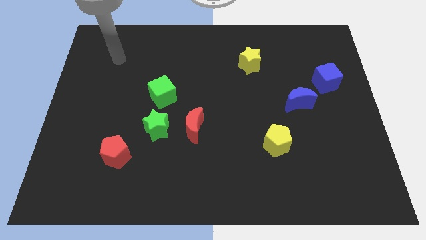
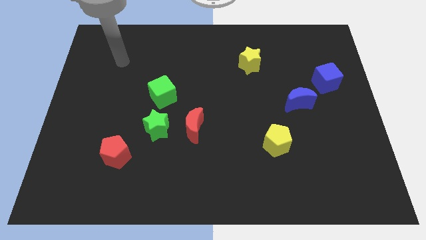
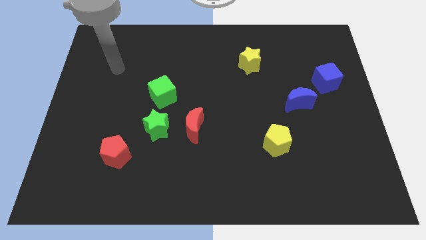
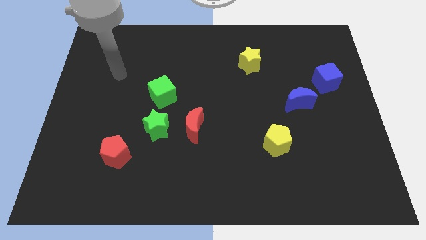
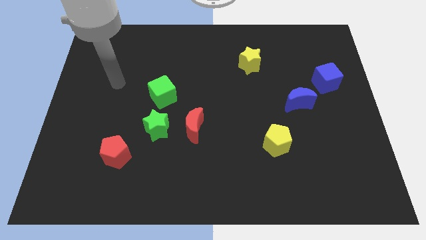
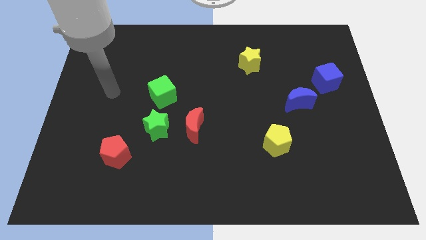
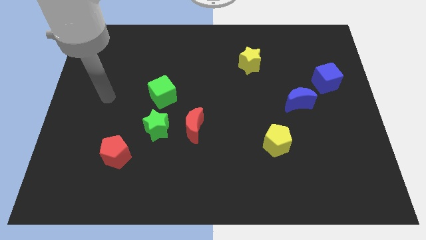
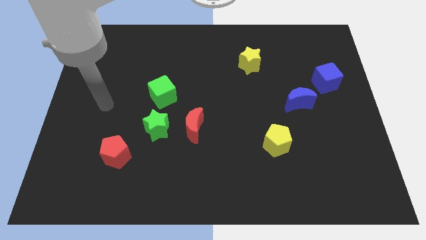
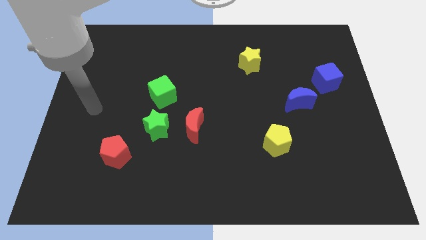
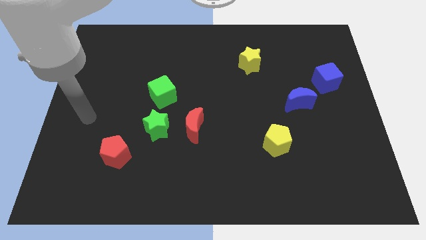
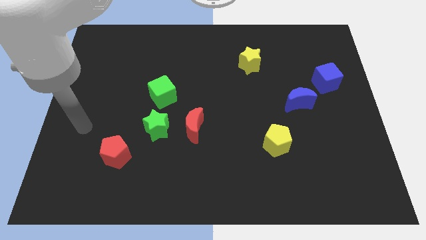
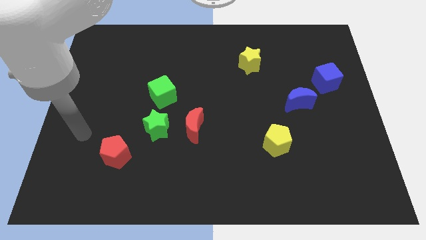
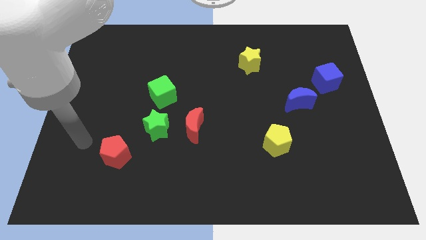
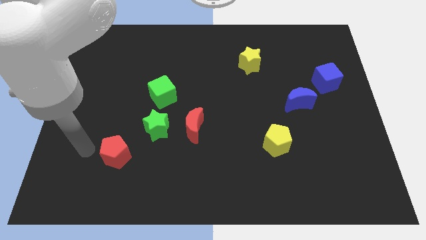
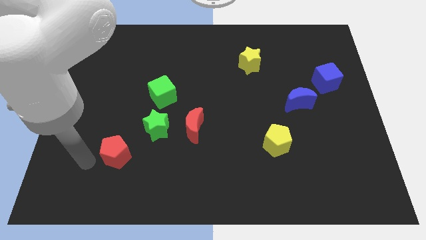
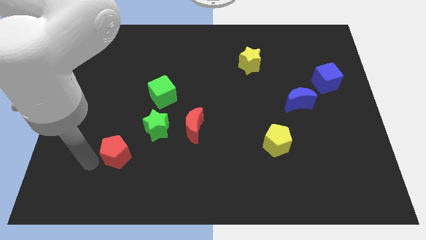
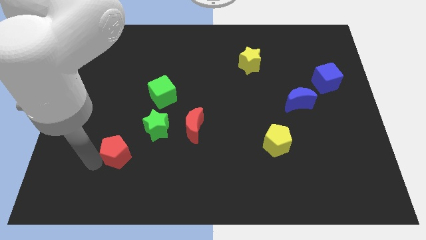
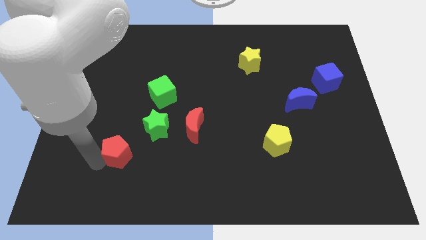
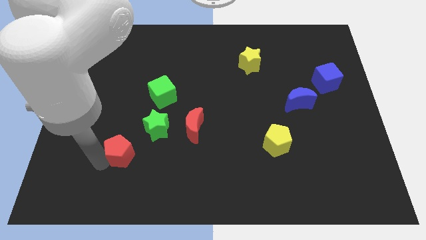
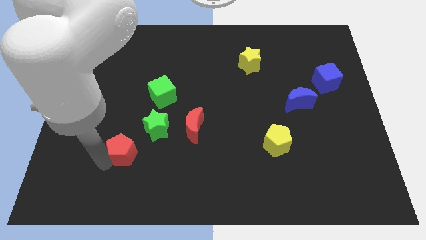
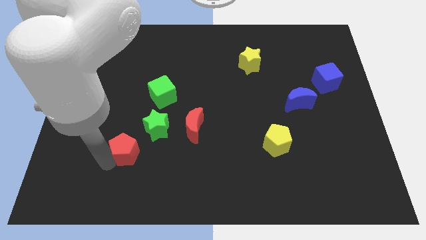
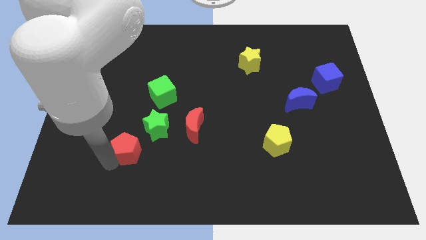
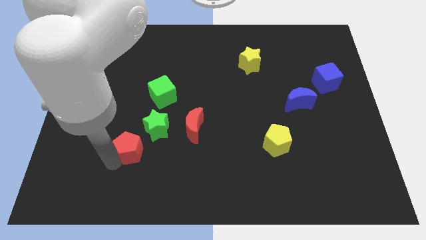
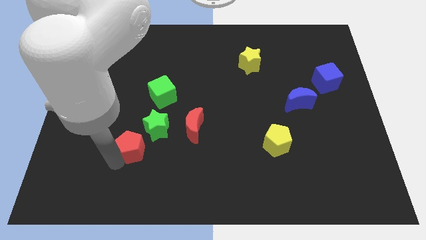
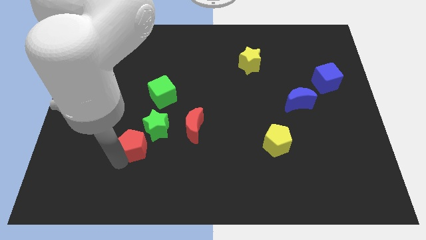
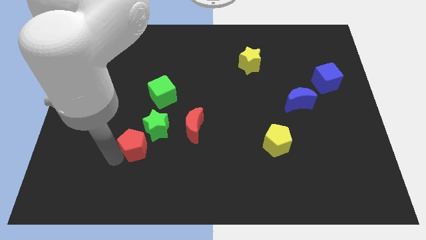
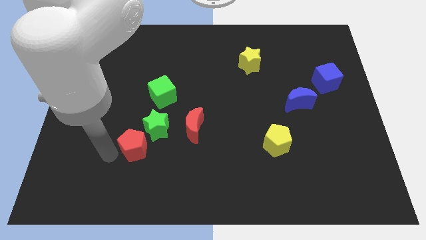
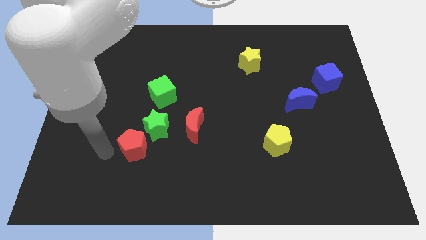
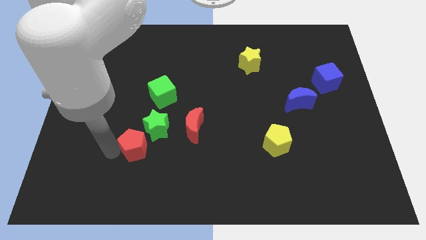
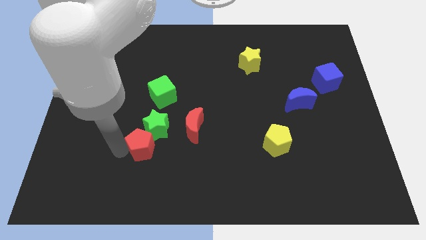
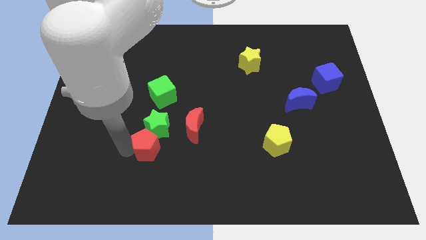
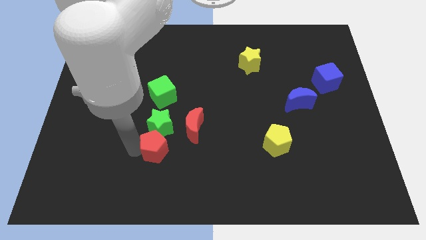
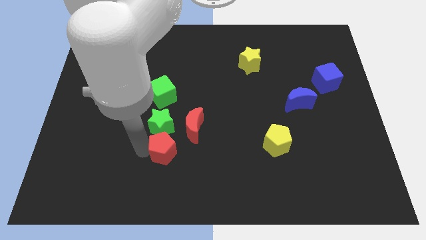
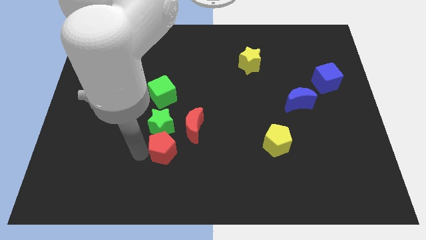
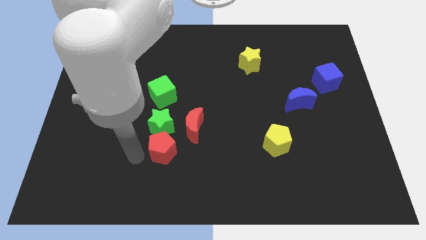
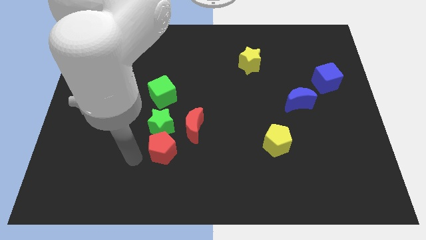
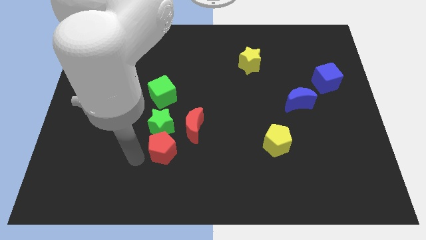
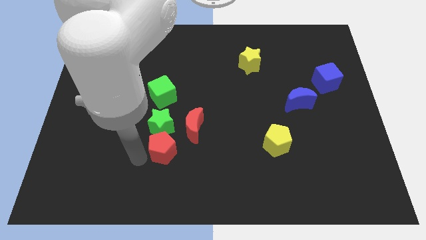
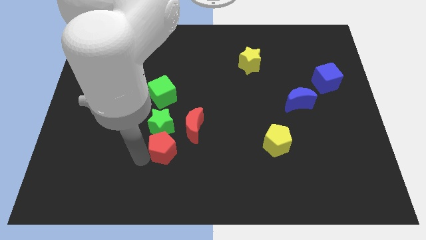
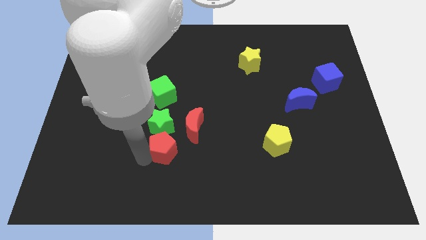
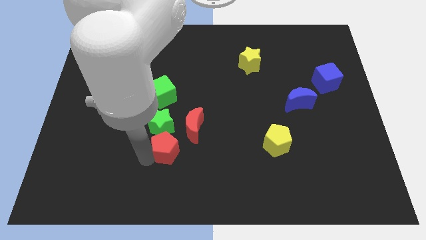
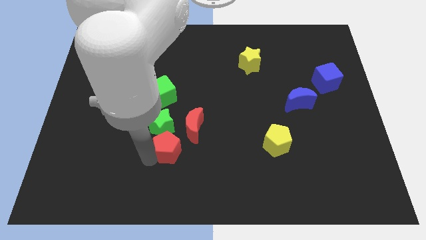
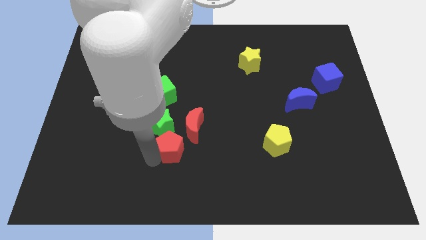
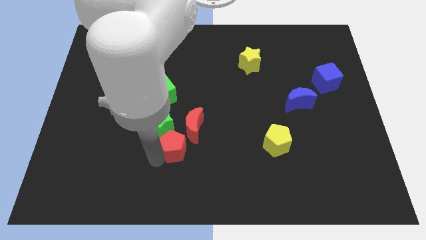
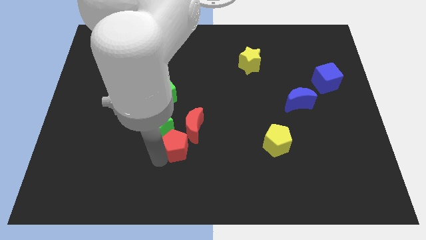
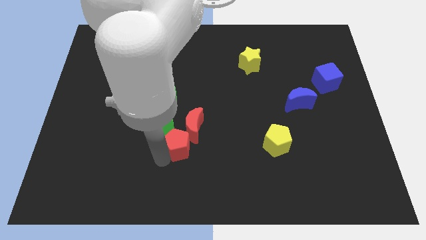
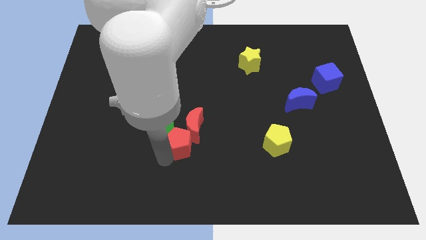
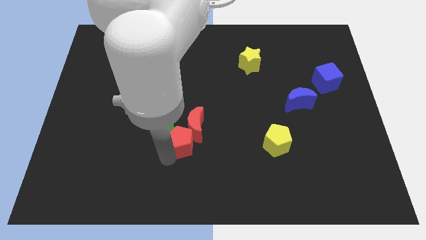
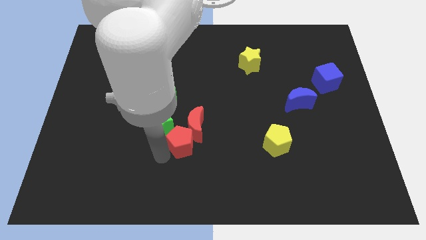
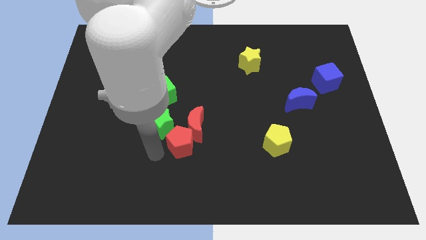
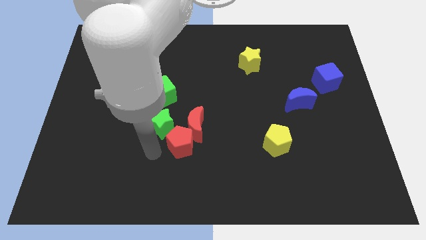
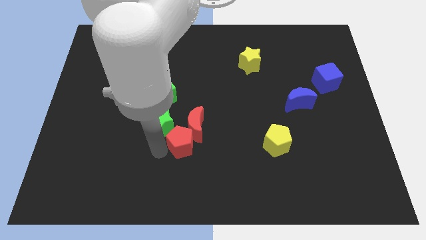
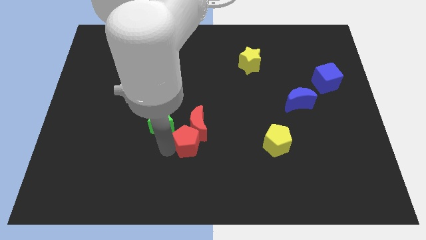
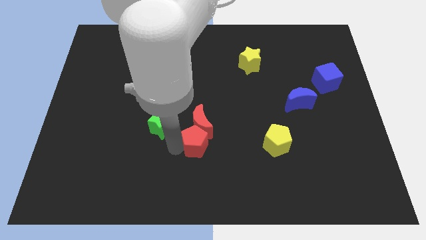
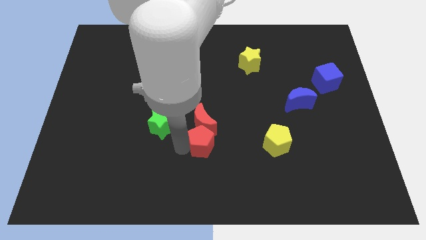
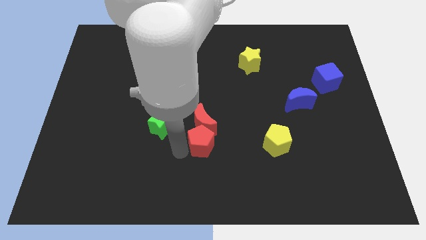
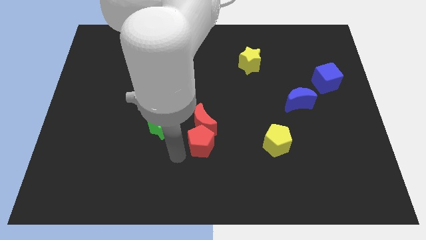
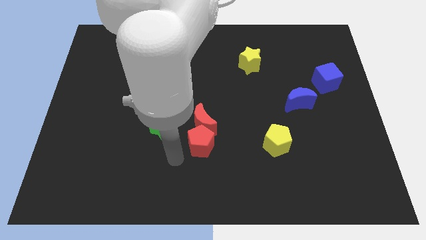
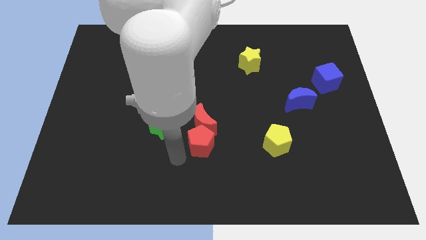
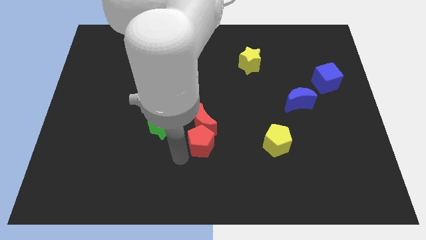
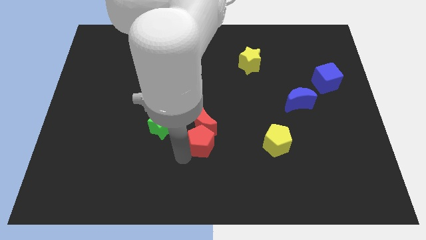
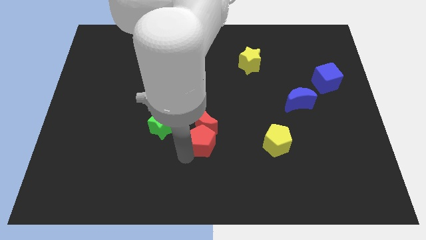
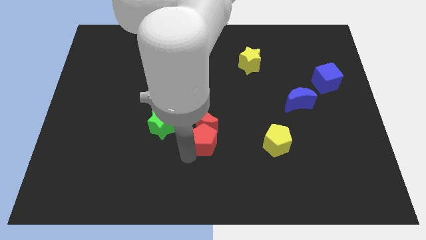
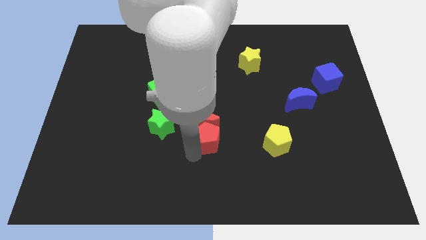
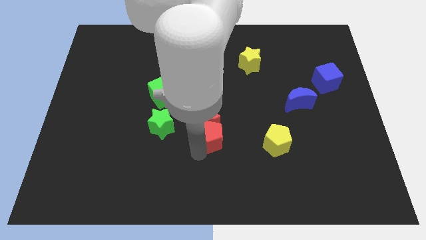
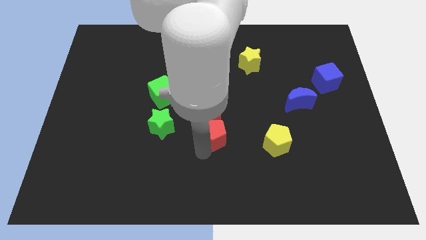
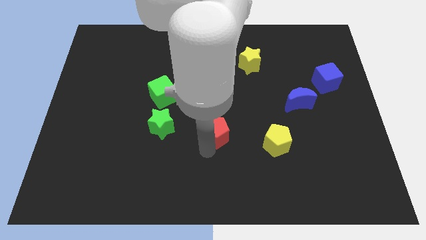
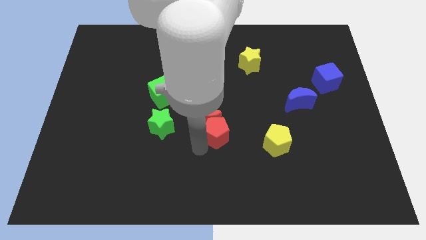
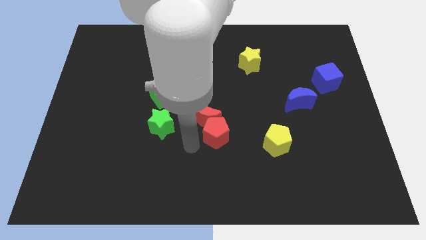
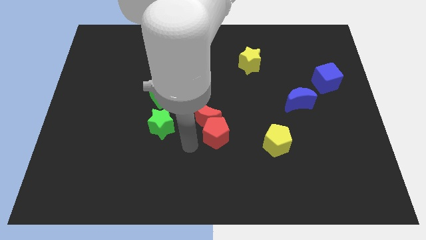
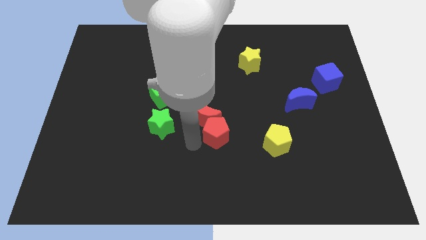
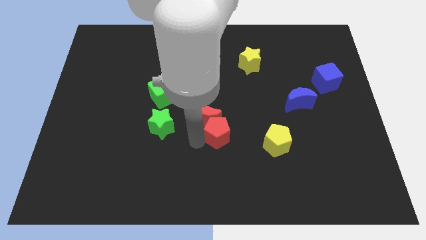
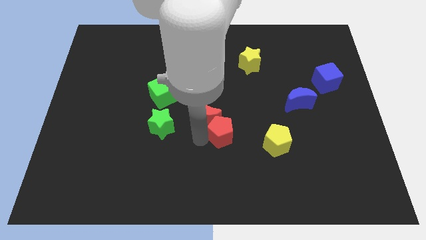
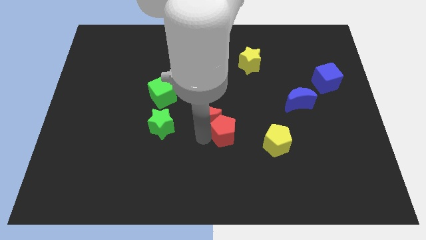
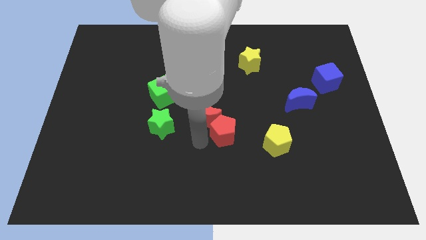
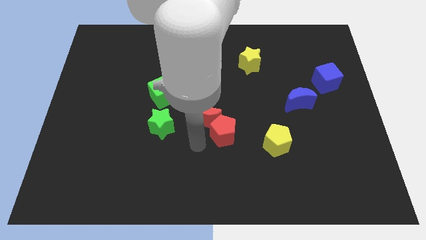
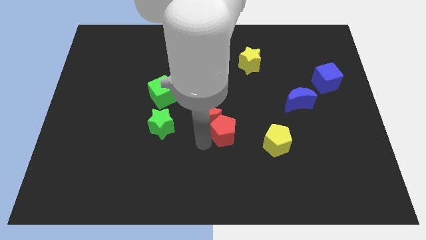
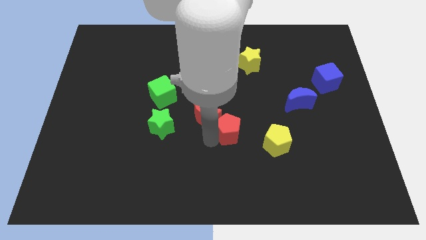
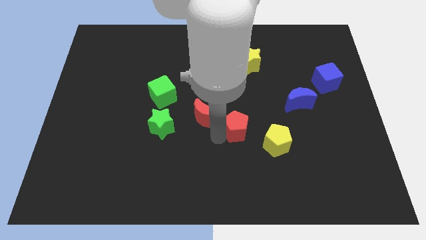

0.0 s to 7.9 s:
push the red pentagon to the top left of the yellow pentagon
